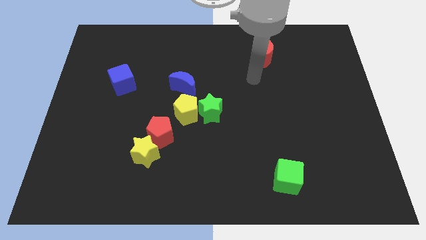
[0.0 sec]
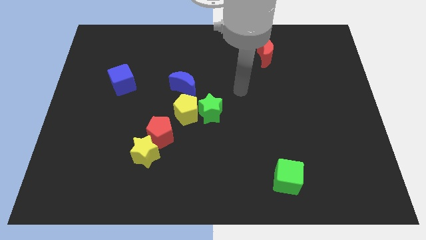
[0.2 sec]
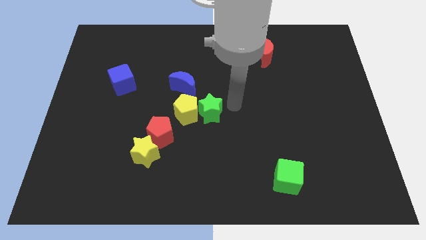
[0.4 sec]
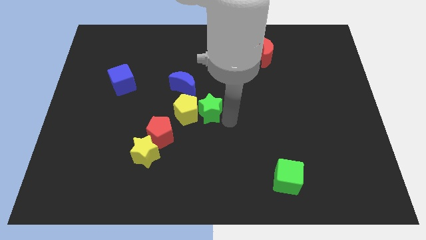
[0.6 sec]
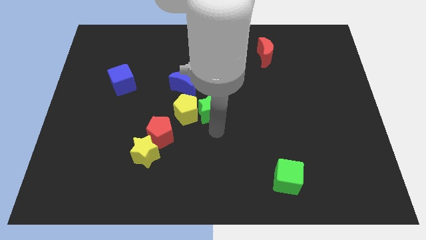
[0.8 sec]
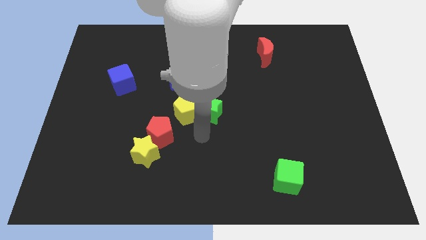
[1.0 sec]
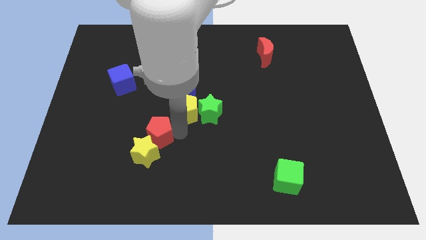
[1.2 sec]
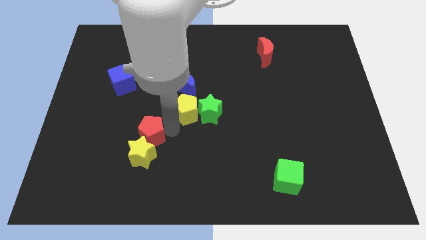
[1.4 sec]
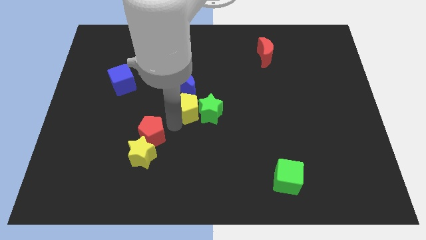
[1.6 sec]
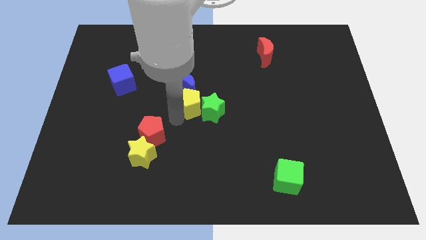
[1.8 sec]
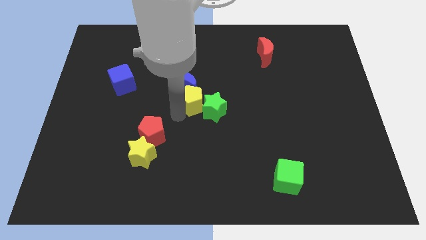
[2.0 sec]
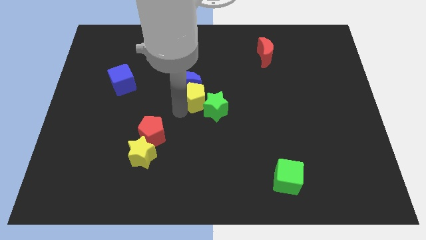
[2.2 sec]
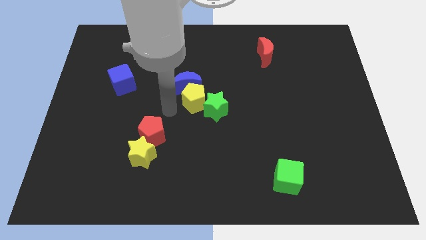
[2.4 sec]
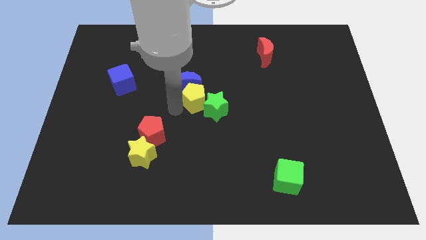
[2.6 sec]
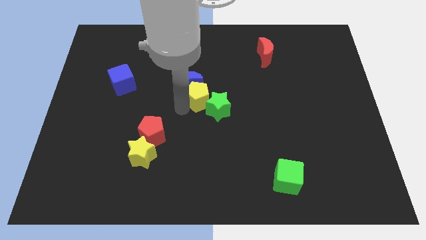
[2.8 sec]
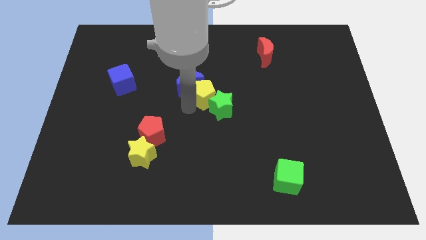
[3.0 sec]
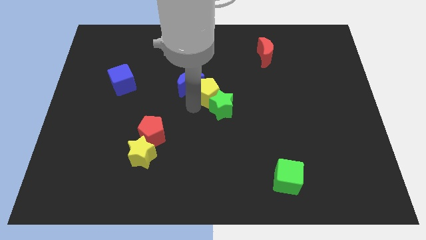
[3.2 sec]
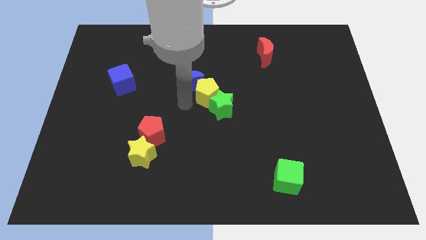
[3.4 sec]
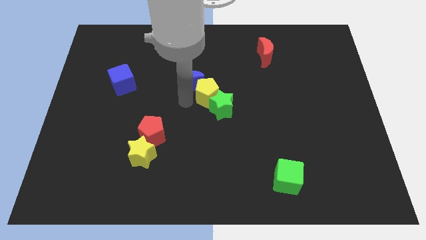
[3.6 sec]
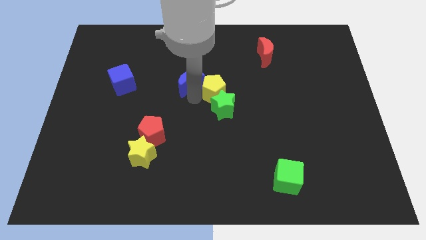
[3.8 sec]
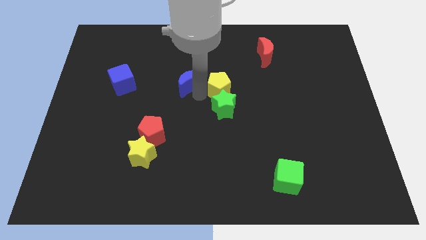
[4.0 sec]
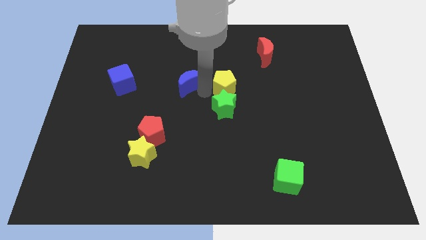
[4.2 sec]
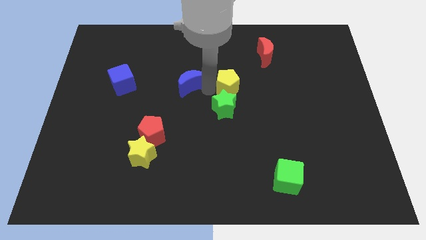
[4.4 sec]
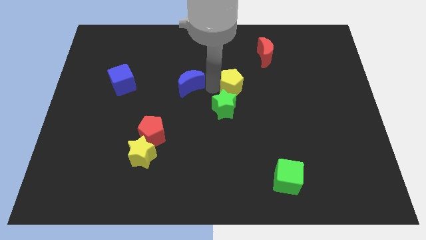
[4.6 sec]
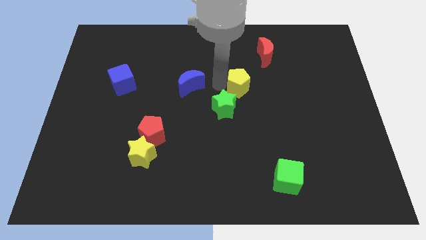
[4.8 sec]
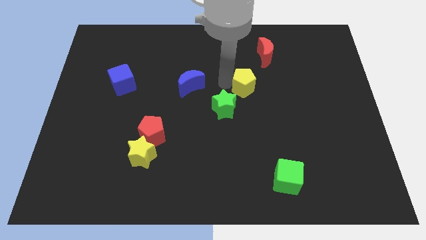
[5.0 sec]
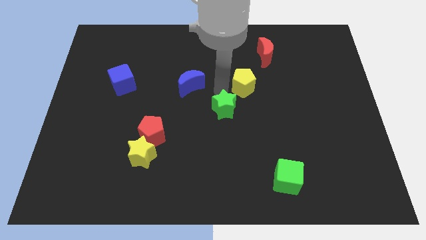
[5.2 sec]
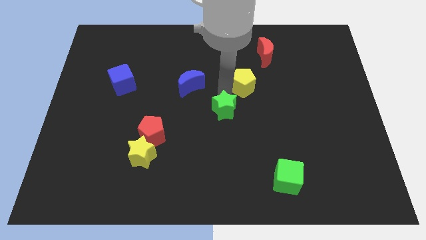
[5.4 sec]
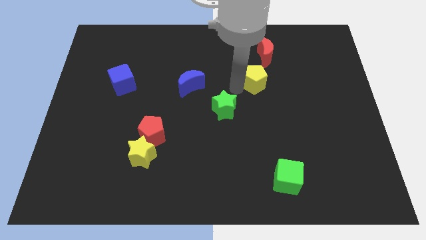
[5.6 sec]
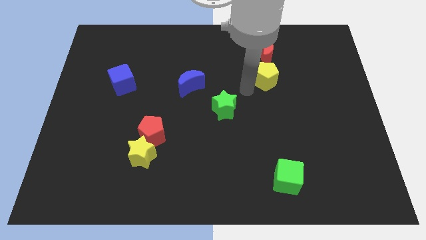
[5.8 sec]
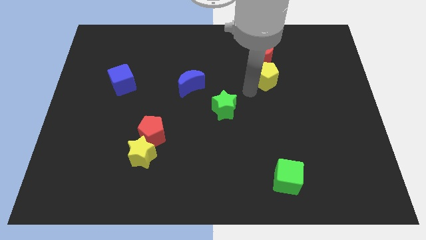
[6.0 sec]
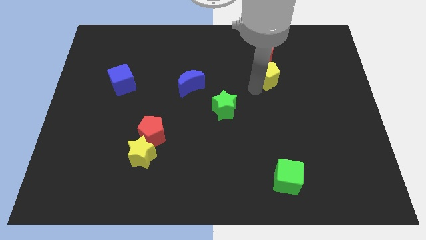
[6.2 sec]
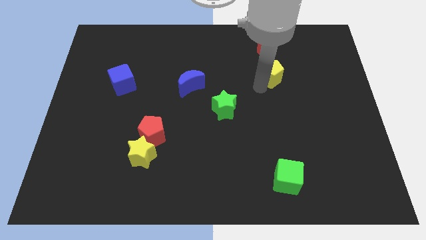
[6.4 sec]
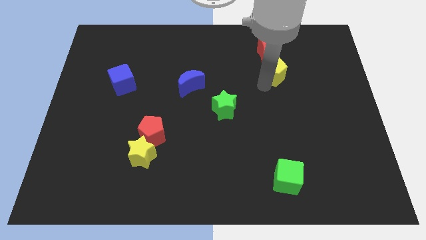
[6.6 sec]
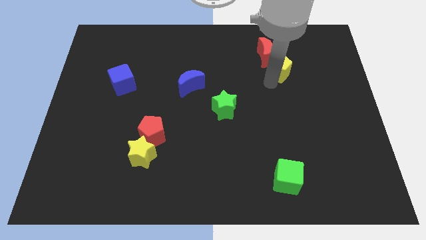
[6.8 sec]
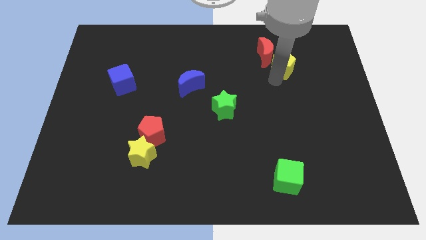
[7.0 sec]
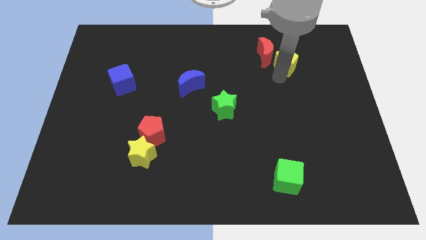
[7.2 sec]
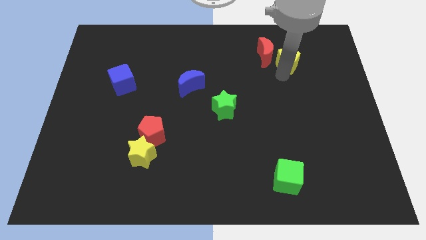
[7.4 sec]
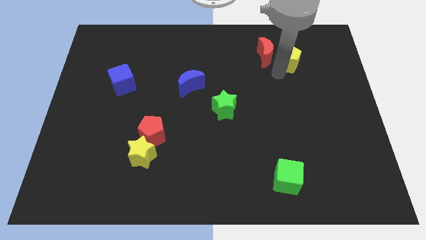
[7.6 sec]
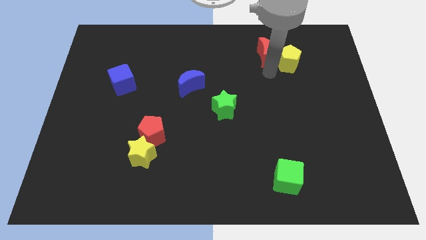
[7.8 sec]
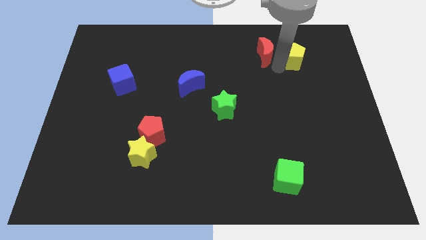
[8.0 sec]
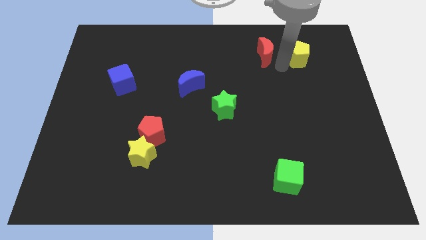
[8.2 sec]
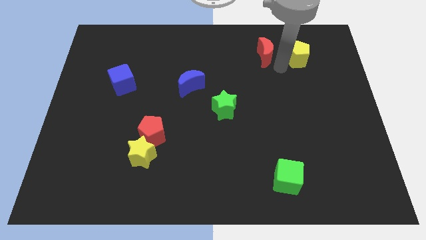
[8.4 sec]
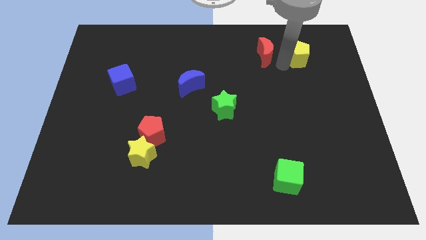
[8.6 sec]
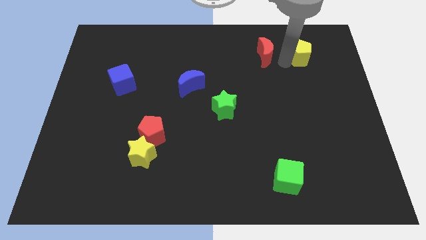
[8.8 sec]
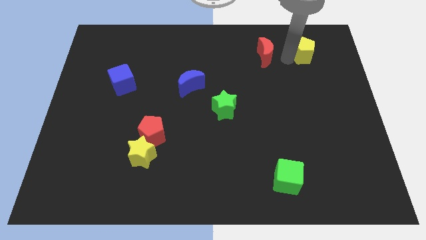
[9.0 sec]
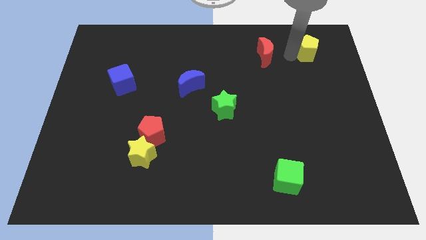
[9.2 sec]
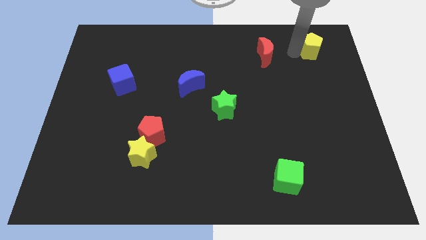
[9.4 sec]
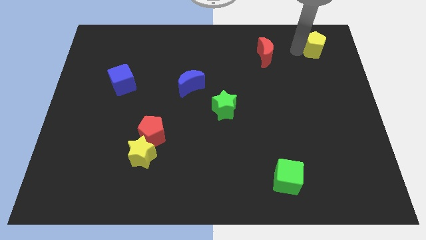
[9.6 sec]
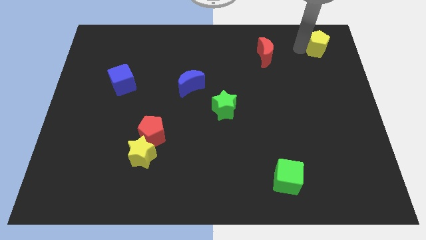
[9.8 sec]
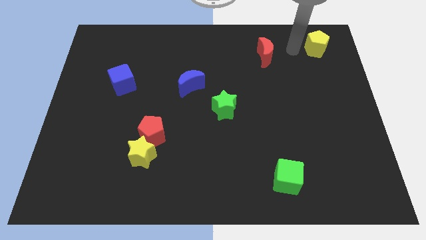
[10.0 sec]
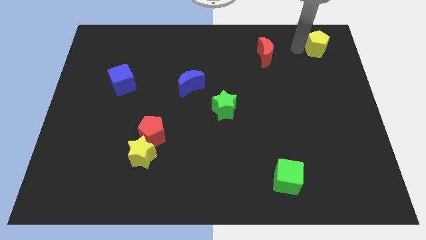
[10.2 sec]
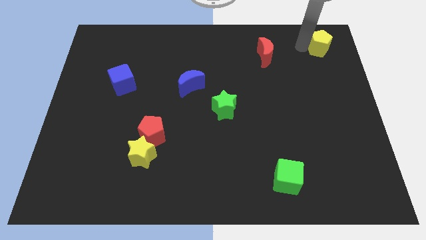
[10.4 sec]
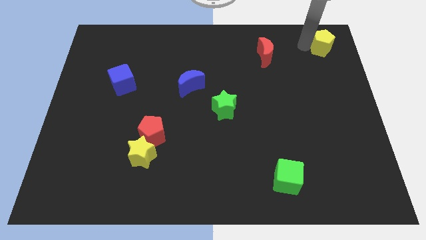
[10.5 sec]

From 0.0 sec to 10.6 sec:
push the yellow pentagon to the upper right corner

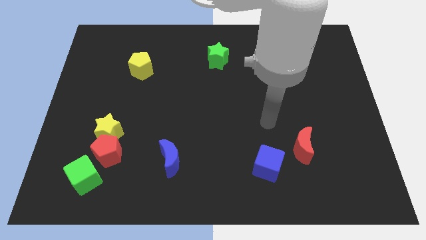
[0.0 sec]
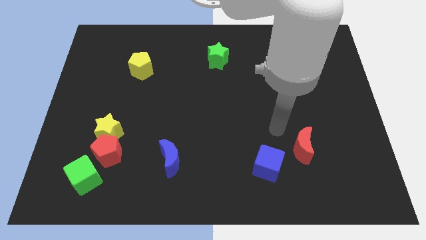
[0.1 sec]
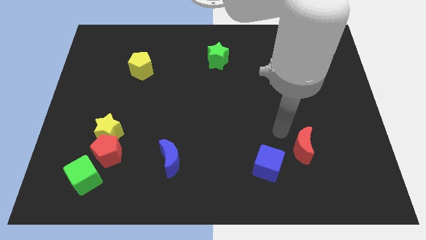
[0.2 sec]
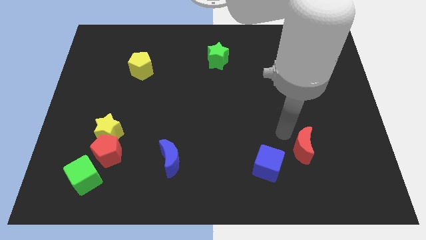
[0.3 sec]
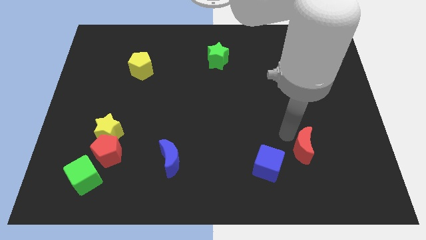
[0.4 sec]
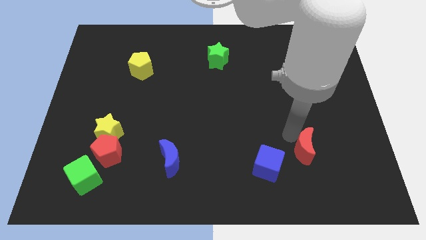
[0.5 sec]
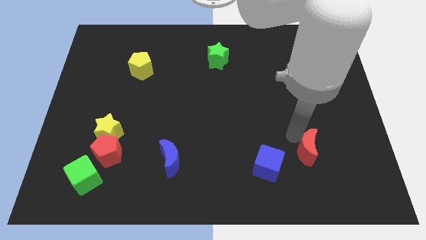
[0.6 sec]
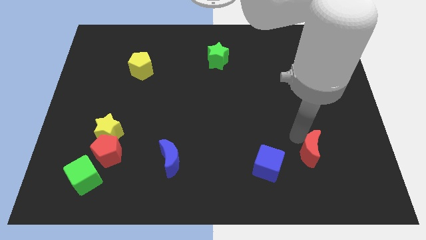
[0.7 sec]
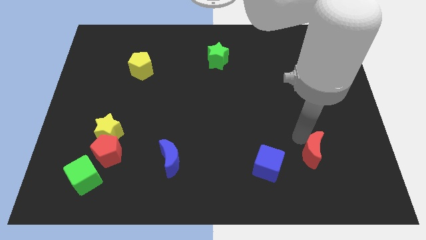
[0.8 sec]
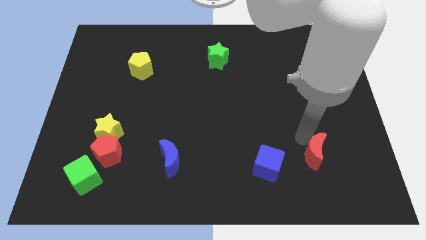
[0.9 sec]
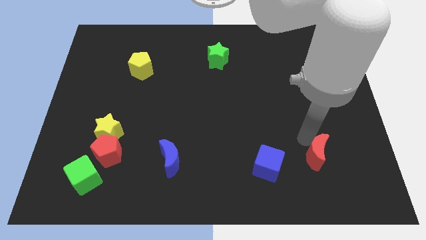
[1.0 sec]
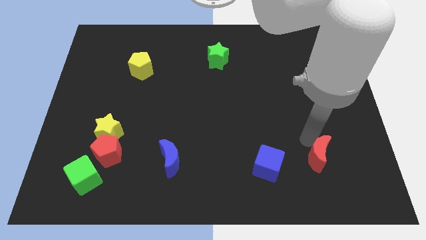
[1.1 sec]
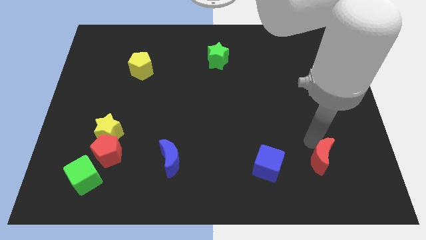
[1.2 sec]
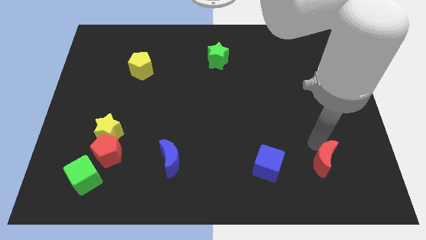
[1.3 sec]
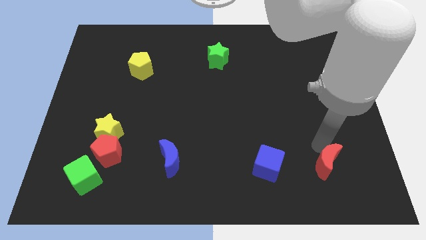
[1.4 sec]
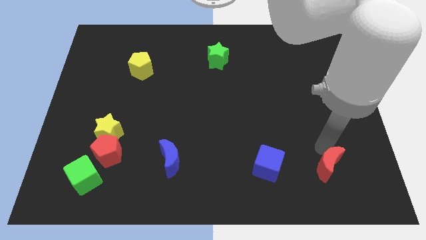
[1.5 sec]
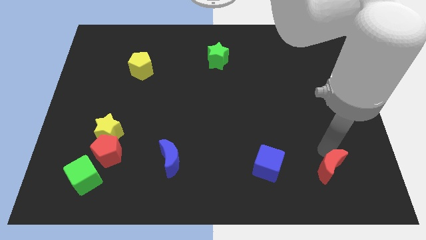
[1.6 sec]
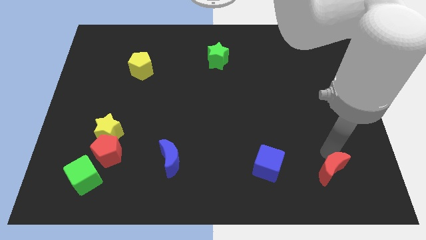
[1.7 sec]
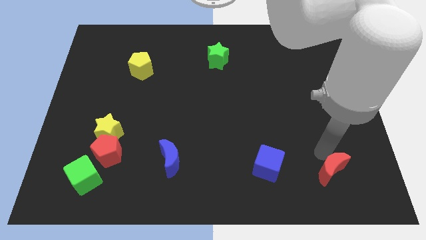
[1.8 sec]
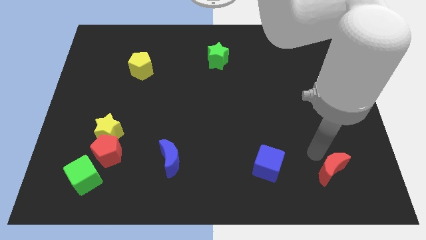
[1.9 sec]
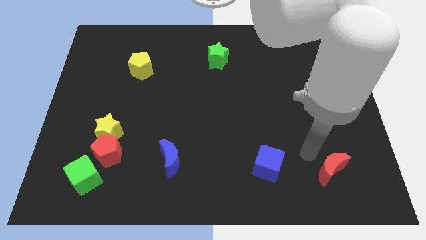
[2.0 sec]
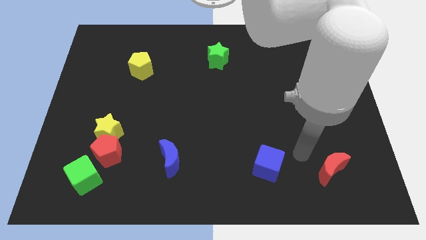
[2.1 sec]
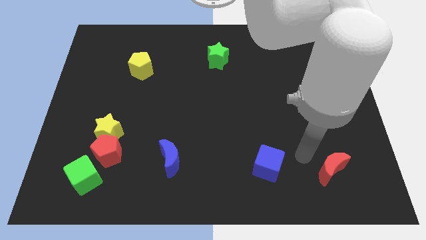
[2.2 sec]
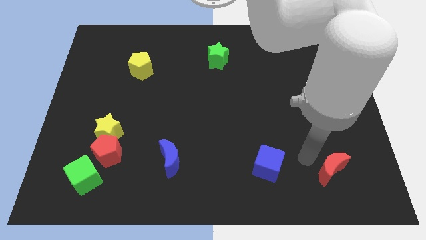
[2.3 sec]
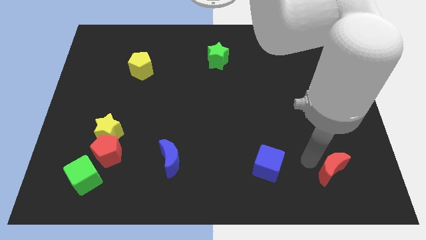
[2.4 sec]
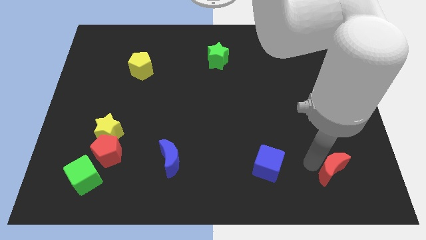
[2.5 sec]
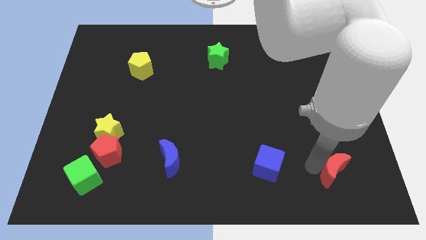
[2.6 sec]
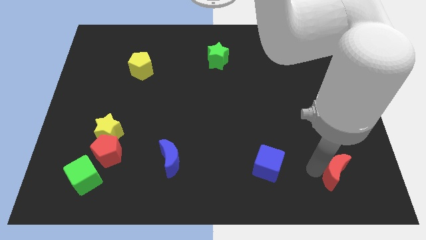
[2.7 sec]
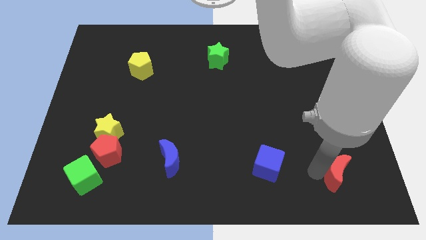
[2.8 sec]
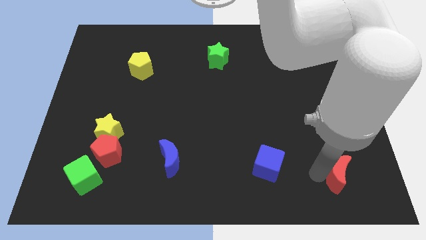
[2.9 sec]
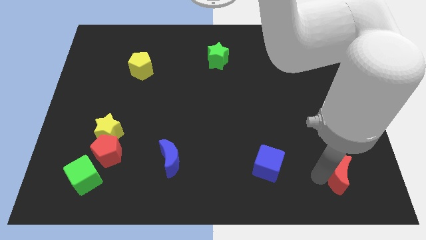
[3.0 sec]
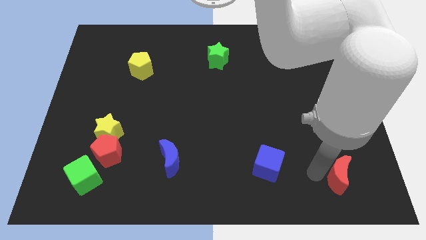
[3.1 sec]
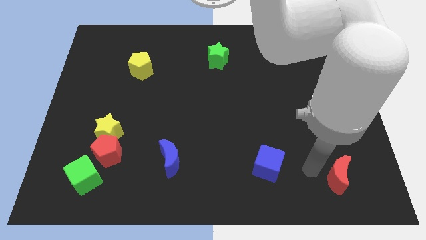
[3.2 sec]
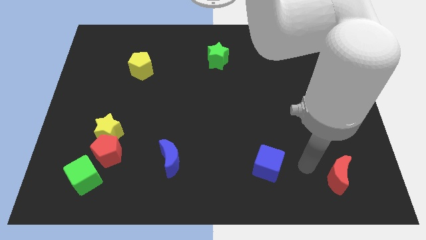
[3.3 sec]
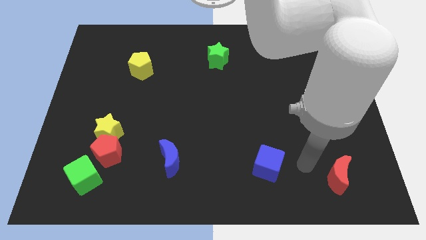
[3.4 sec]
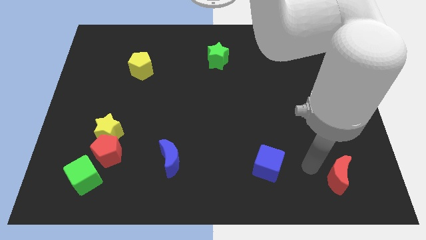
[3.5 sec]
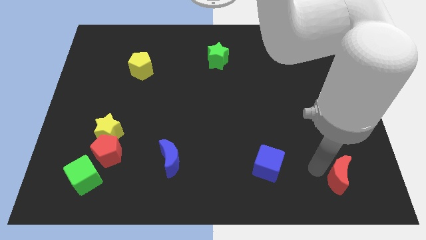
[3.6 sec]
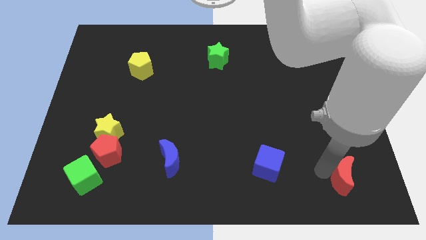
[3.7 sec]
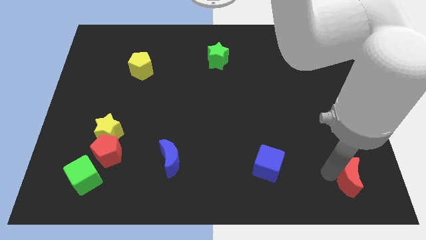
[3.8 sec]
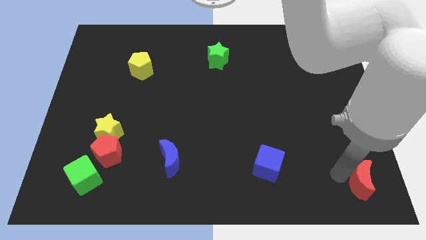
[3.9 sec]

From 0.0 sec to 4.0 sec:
put the red moon to the bottom right
